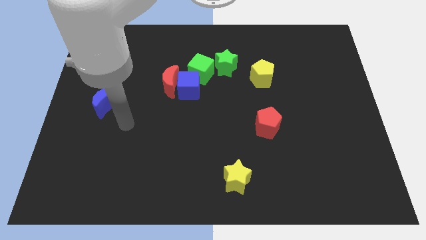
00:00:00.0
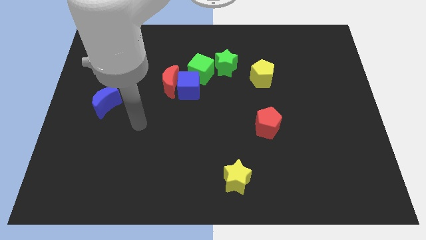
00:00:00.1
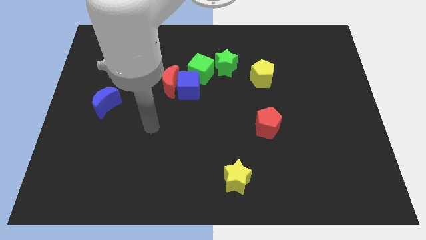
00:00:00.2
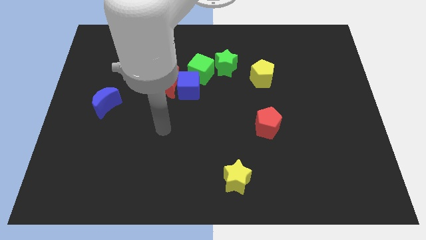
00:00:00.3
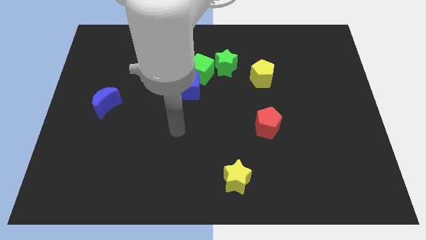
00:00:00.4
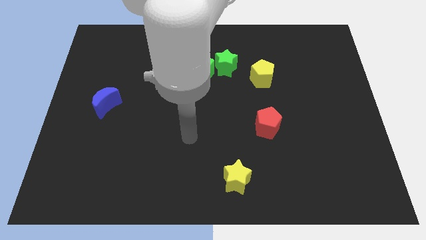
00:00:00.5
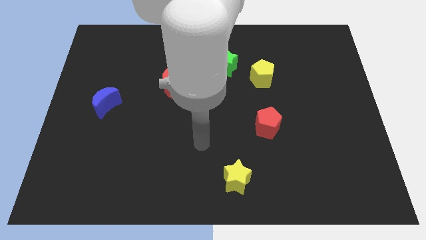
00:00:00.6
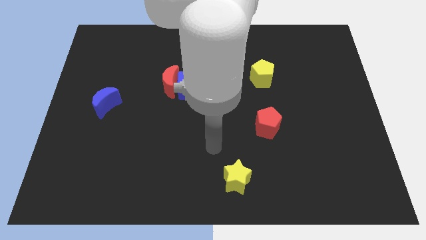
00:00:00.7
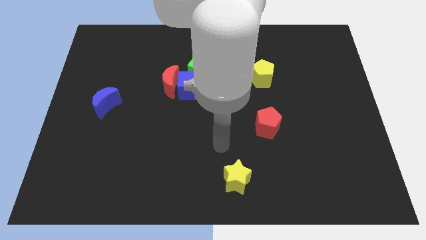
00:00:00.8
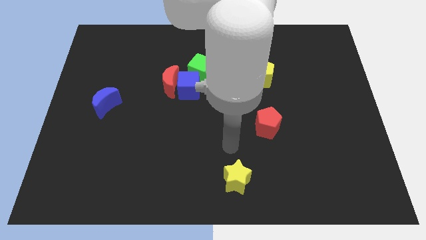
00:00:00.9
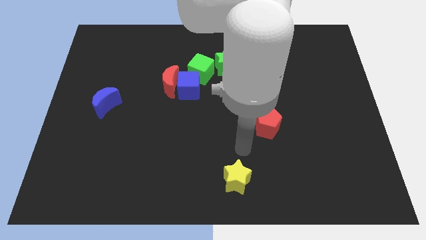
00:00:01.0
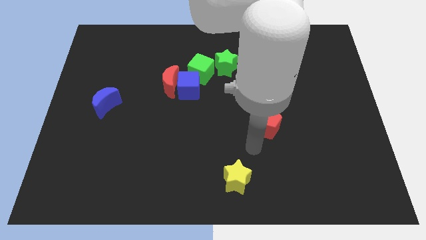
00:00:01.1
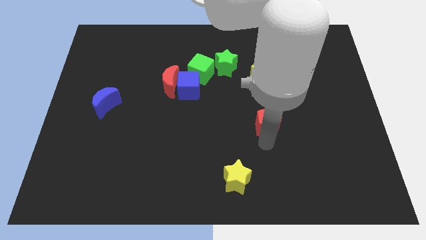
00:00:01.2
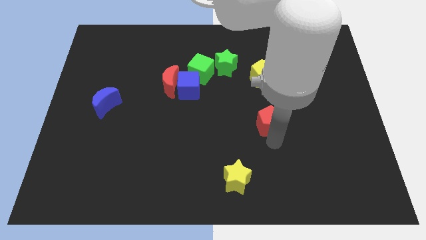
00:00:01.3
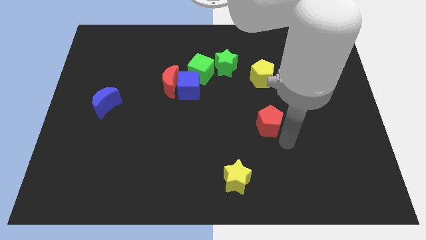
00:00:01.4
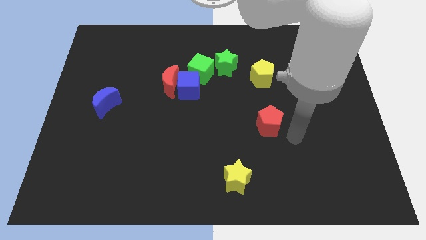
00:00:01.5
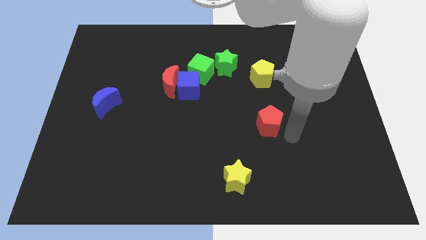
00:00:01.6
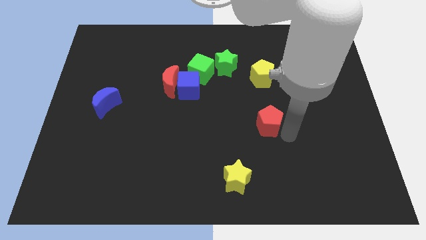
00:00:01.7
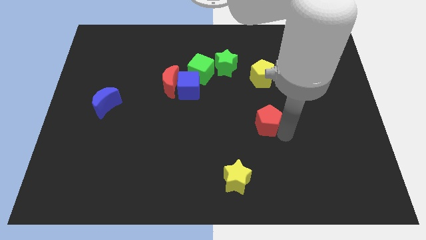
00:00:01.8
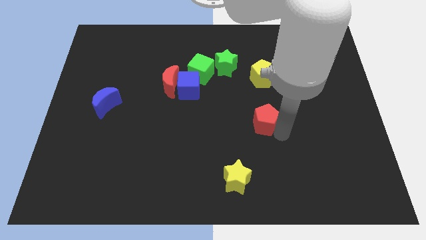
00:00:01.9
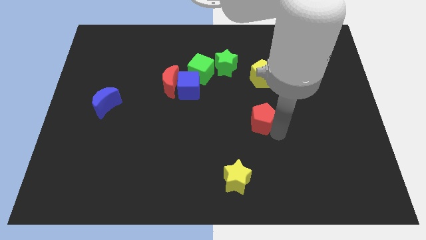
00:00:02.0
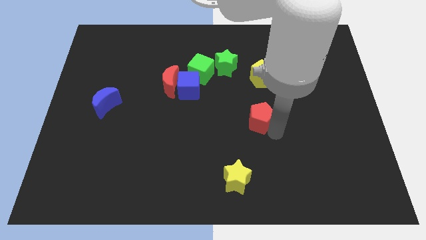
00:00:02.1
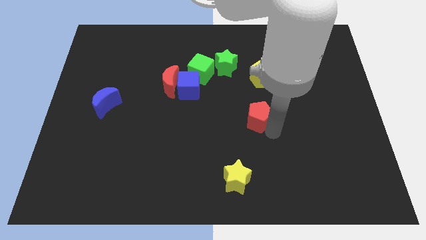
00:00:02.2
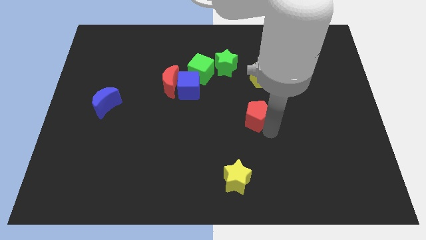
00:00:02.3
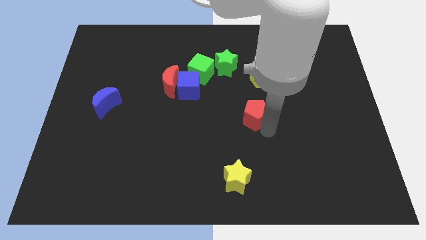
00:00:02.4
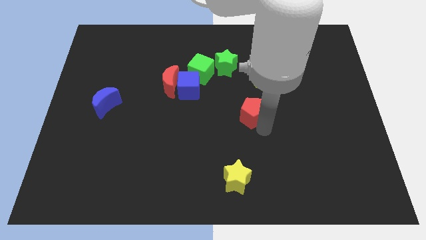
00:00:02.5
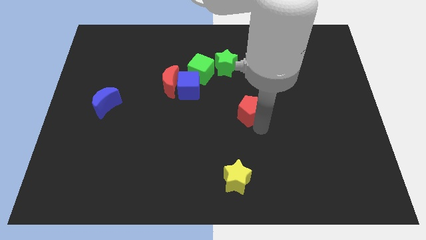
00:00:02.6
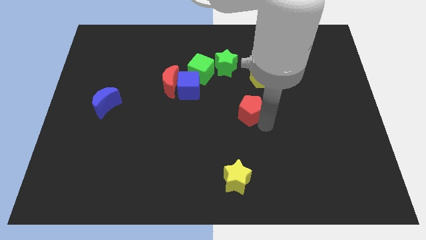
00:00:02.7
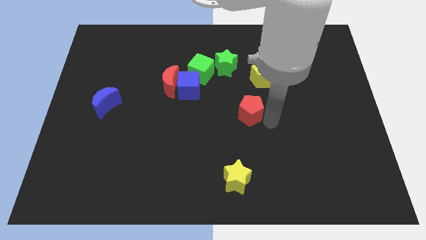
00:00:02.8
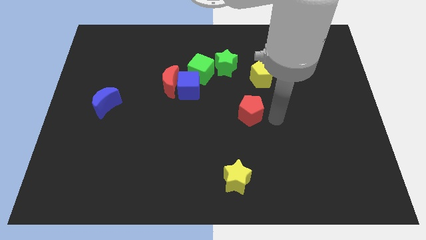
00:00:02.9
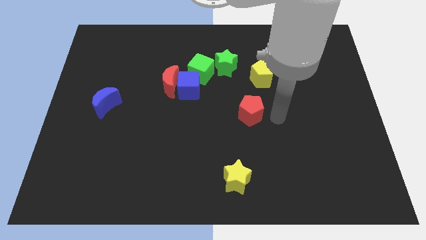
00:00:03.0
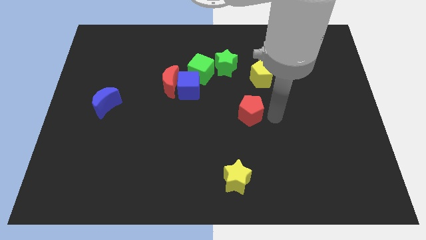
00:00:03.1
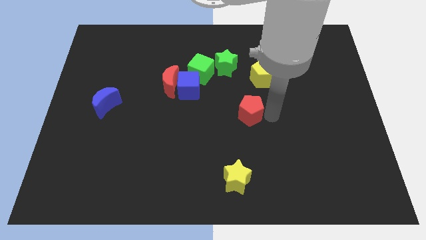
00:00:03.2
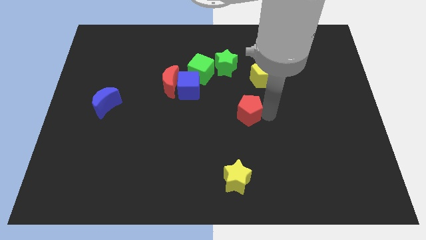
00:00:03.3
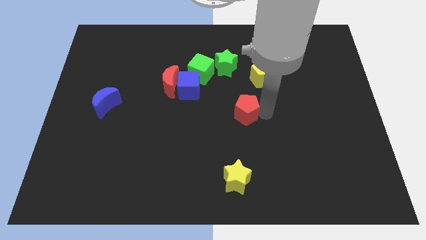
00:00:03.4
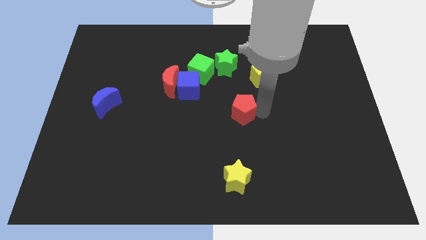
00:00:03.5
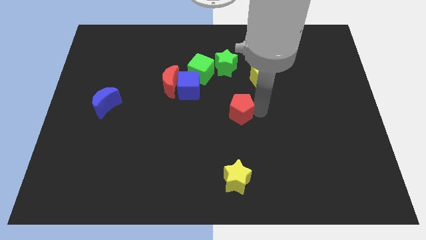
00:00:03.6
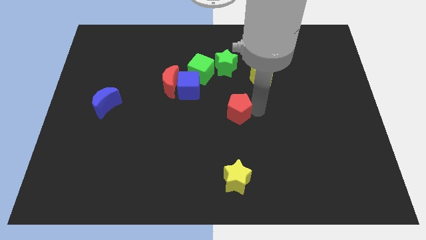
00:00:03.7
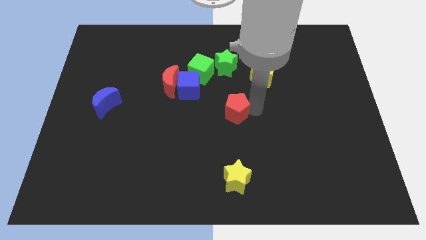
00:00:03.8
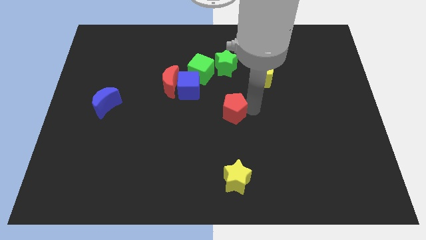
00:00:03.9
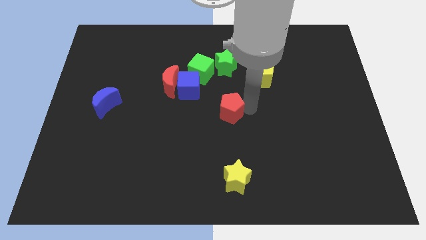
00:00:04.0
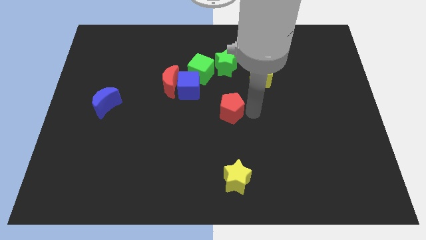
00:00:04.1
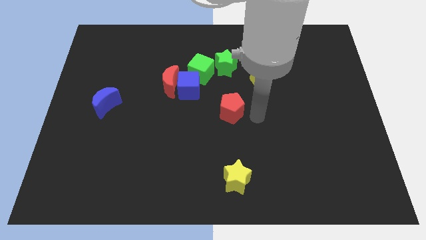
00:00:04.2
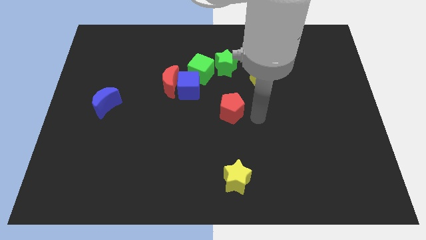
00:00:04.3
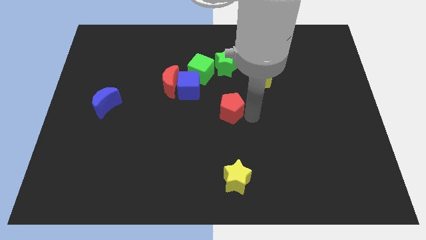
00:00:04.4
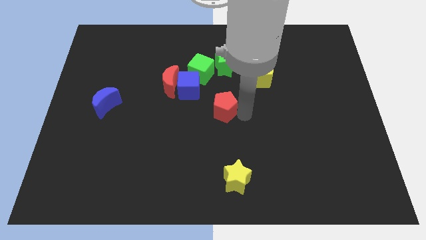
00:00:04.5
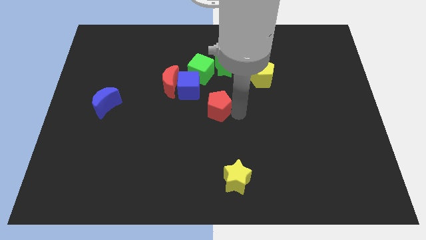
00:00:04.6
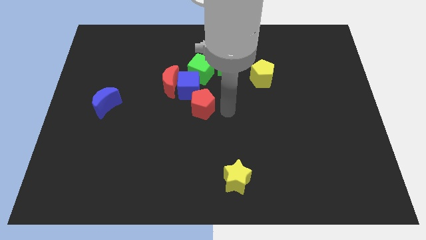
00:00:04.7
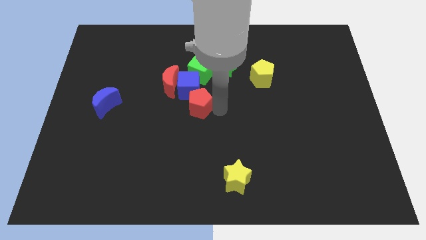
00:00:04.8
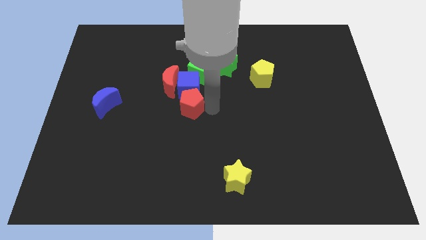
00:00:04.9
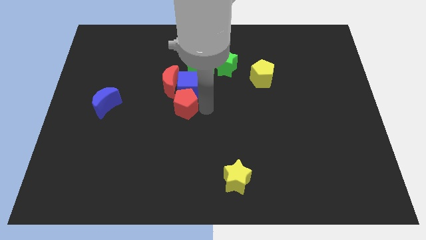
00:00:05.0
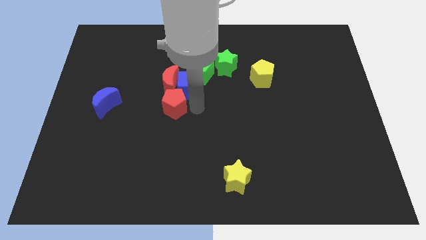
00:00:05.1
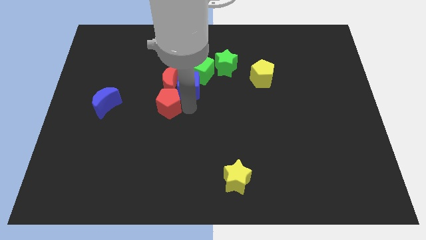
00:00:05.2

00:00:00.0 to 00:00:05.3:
move the red pentagon diagonally down and to the left of the red moon

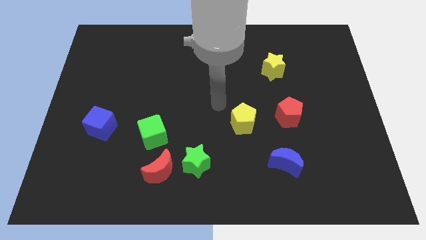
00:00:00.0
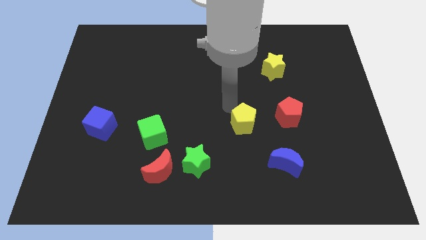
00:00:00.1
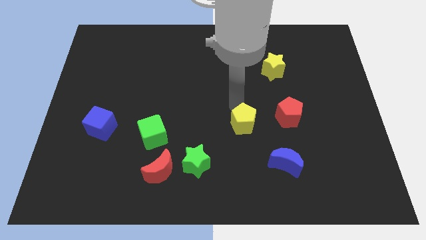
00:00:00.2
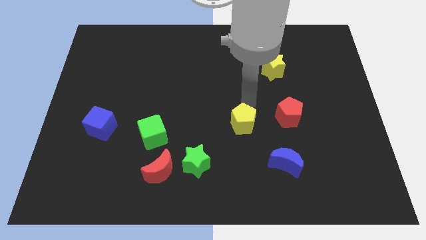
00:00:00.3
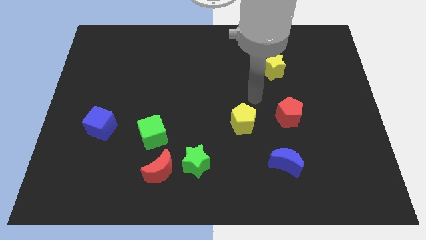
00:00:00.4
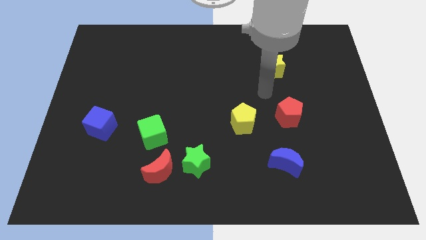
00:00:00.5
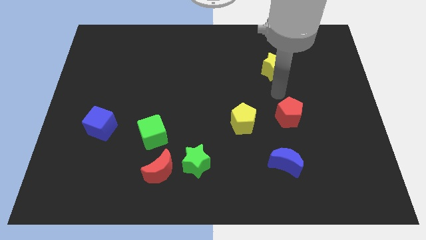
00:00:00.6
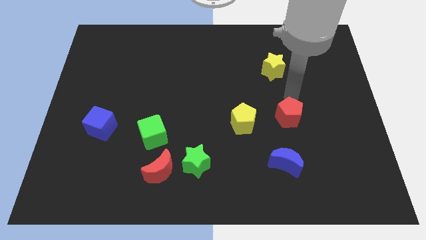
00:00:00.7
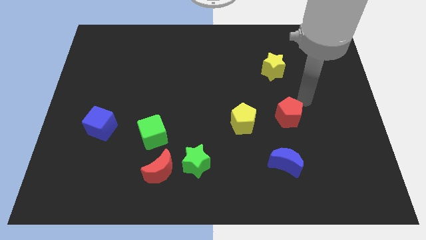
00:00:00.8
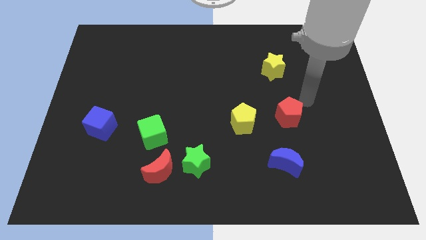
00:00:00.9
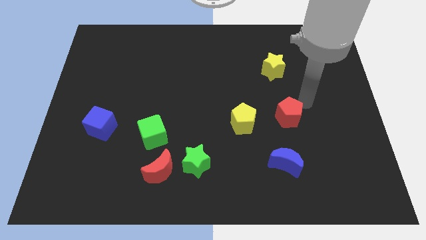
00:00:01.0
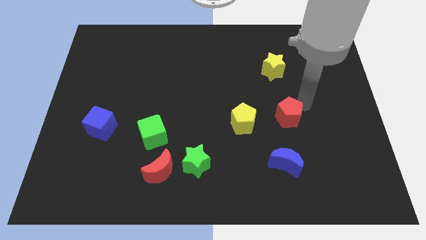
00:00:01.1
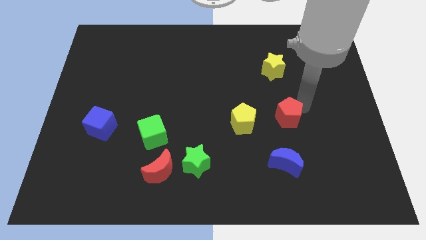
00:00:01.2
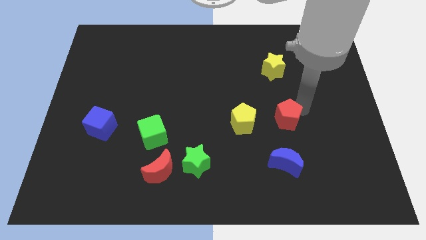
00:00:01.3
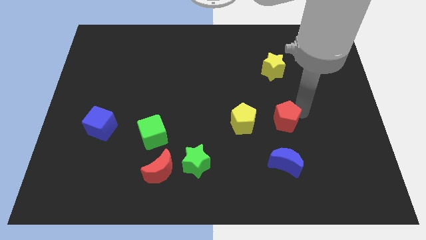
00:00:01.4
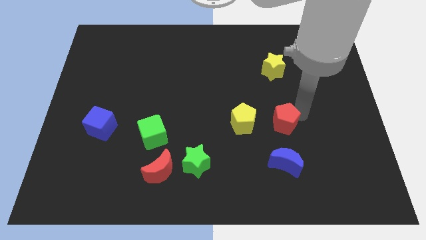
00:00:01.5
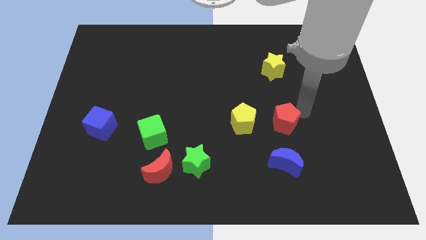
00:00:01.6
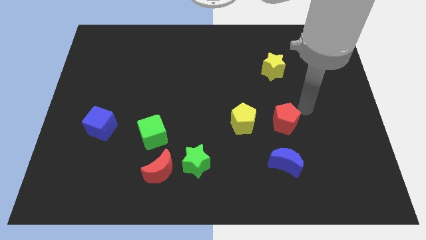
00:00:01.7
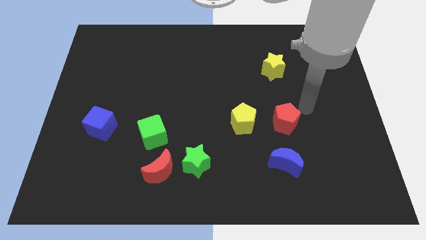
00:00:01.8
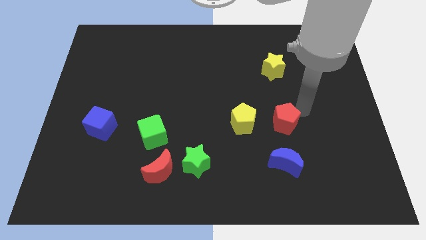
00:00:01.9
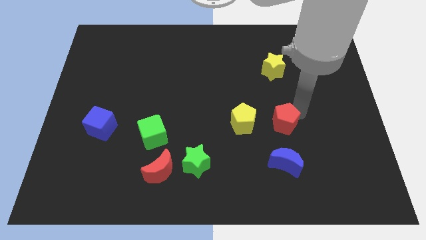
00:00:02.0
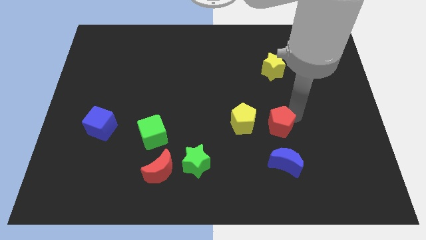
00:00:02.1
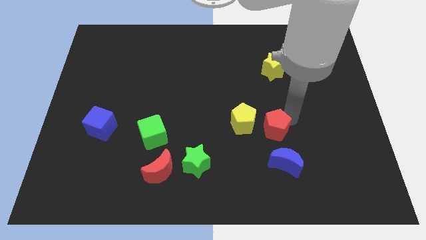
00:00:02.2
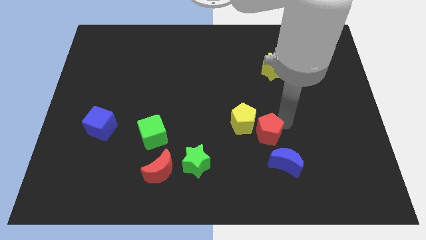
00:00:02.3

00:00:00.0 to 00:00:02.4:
push the red pentagon to the top left side of the blue moon
